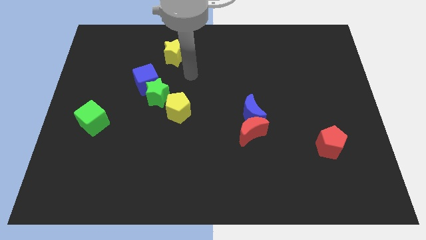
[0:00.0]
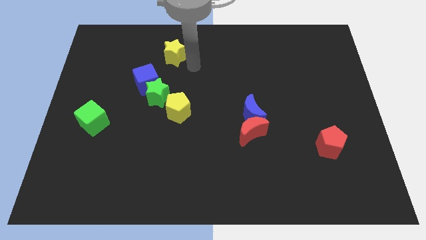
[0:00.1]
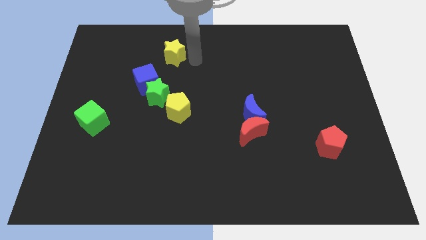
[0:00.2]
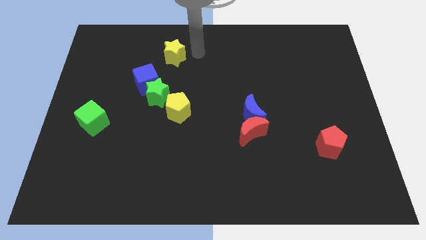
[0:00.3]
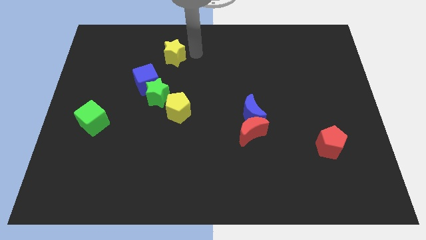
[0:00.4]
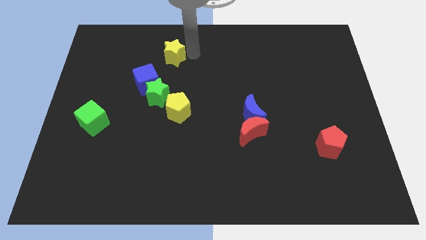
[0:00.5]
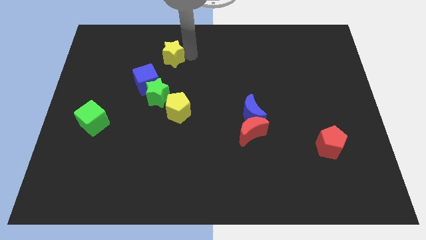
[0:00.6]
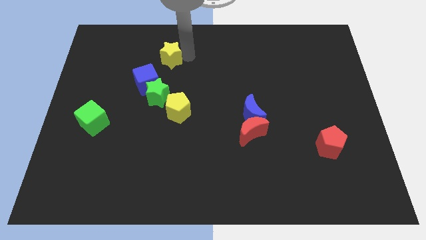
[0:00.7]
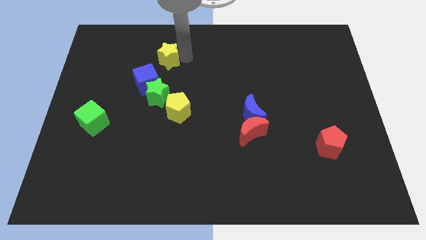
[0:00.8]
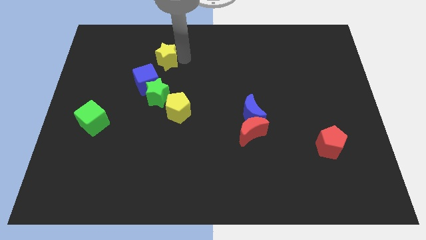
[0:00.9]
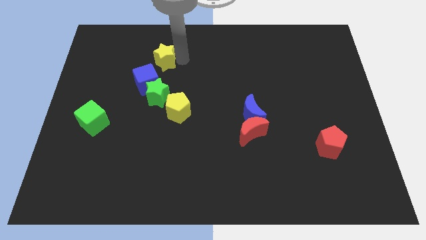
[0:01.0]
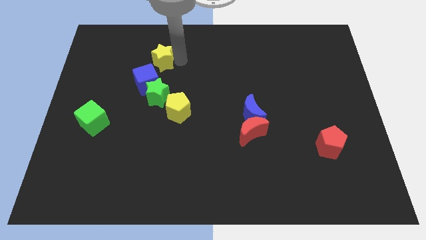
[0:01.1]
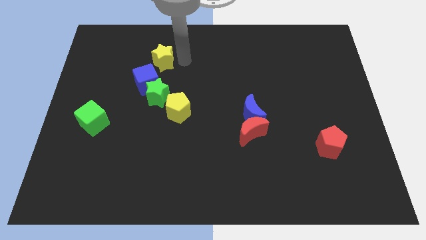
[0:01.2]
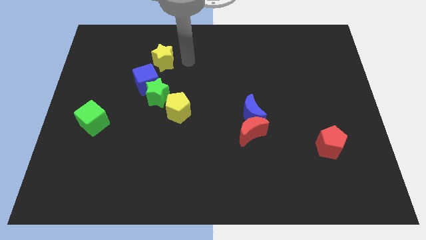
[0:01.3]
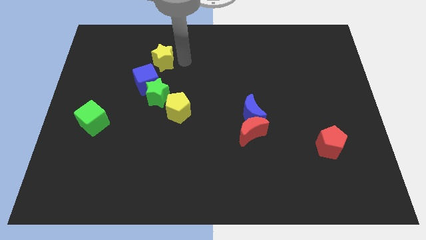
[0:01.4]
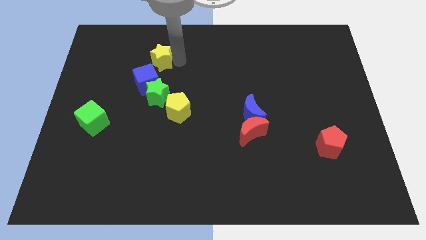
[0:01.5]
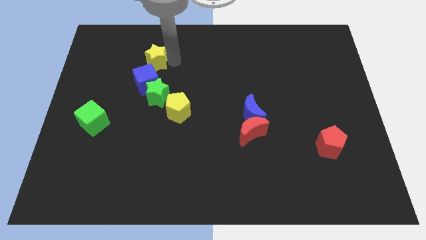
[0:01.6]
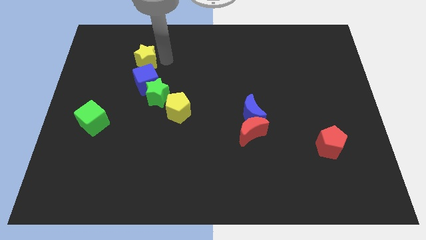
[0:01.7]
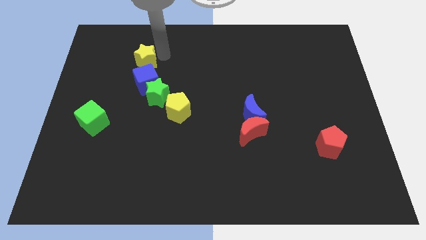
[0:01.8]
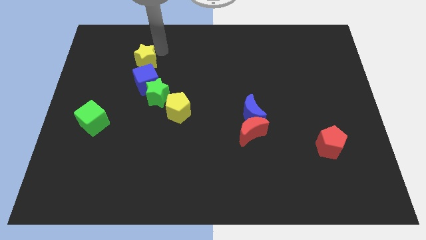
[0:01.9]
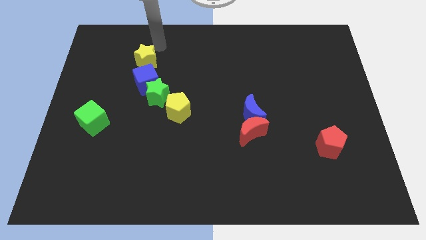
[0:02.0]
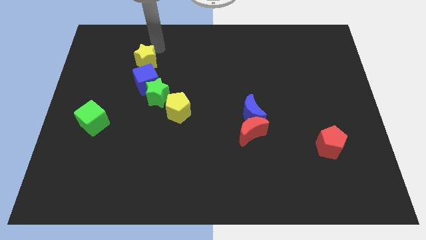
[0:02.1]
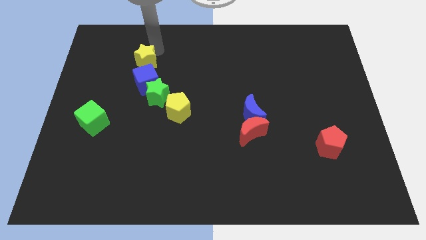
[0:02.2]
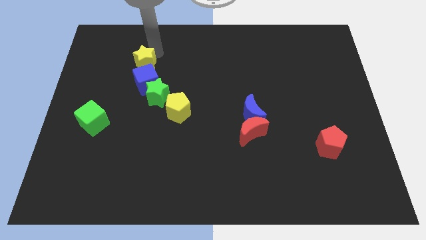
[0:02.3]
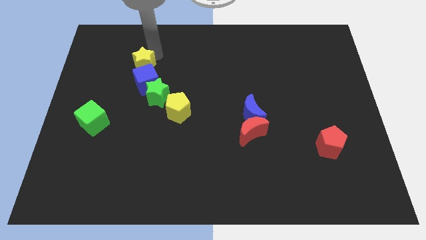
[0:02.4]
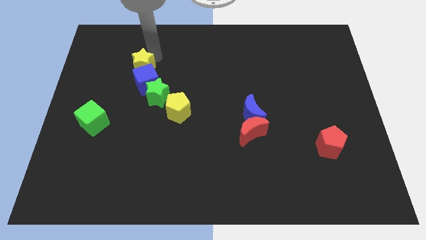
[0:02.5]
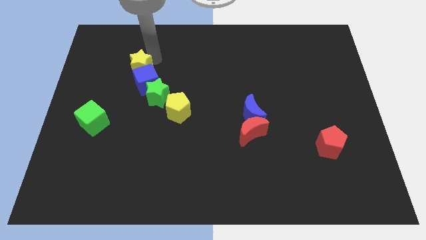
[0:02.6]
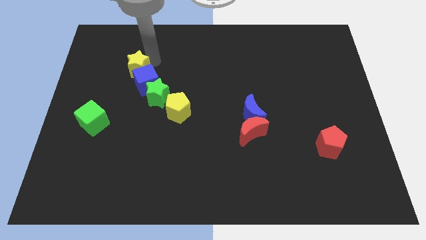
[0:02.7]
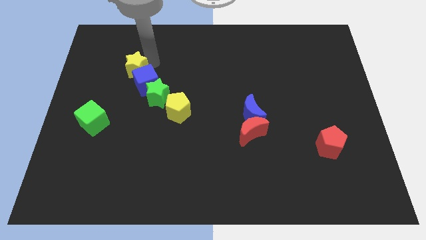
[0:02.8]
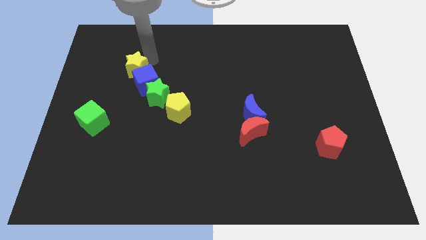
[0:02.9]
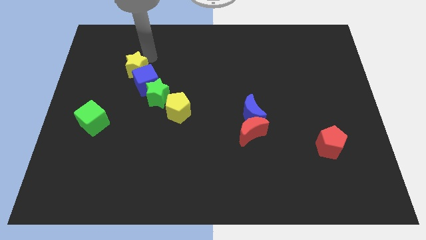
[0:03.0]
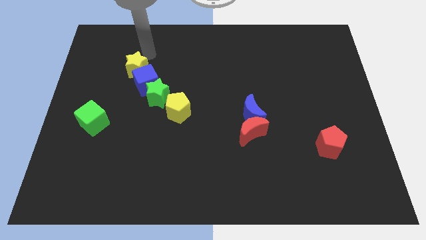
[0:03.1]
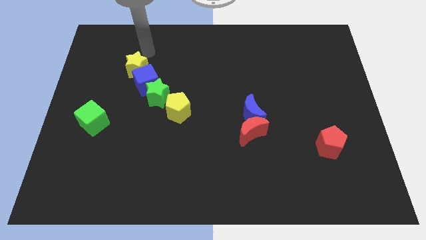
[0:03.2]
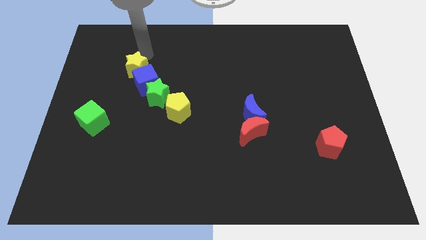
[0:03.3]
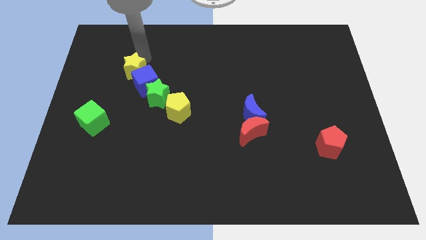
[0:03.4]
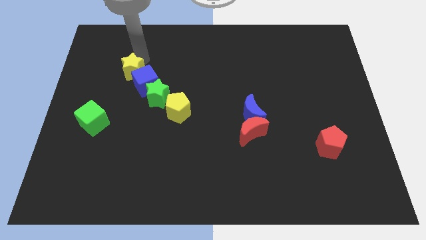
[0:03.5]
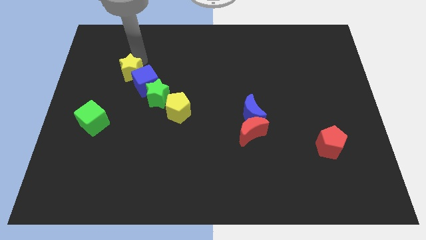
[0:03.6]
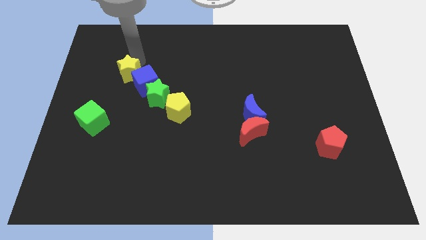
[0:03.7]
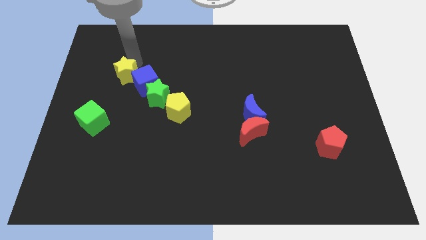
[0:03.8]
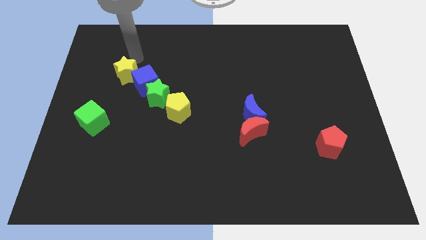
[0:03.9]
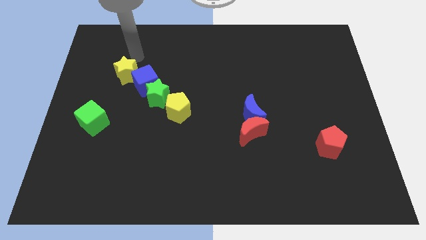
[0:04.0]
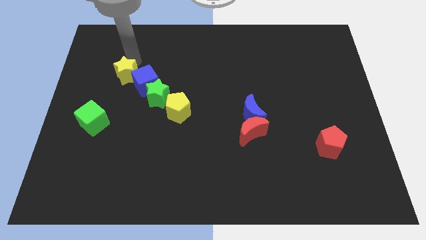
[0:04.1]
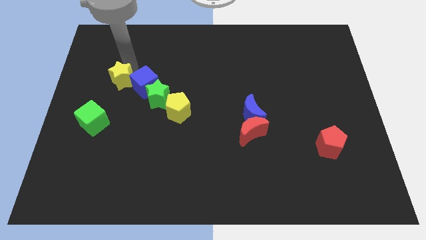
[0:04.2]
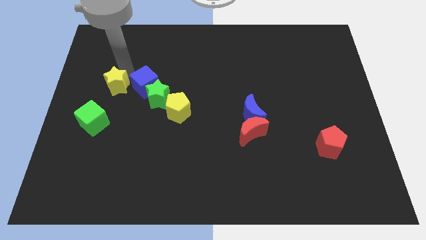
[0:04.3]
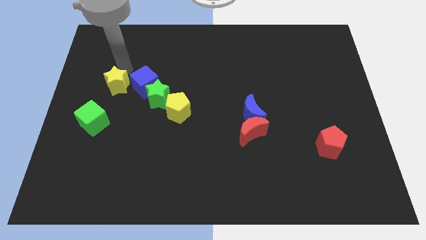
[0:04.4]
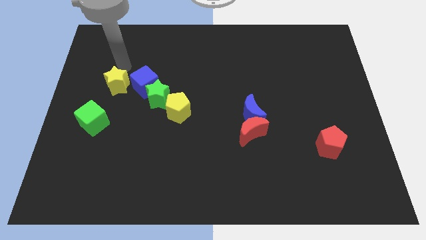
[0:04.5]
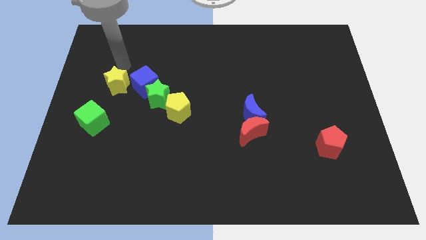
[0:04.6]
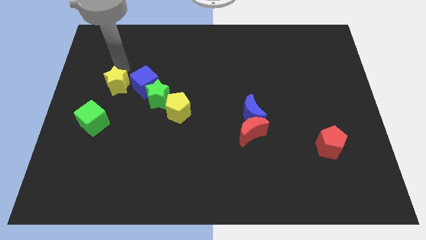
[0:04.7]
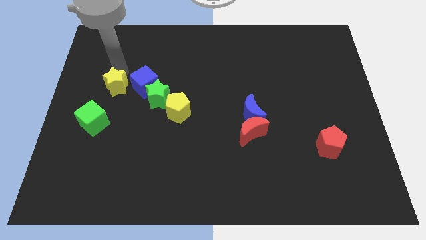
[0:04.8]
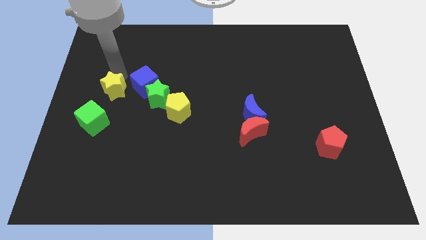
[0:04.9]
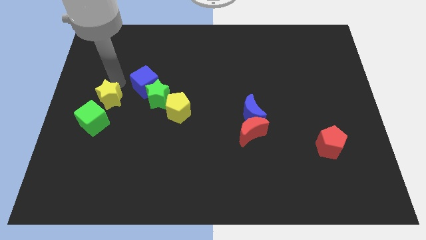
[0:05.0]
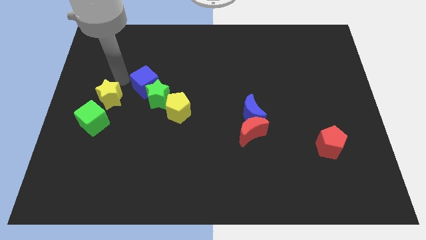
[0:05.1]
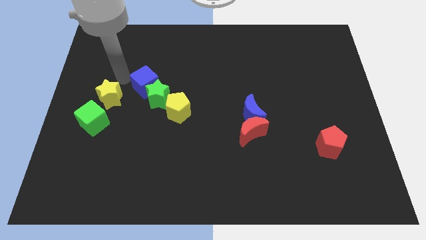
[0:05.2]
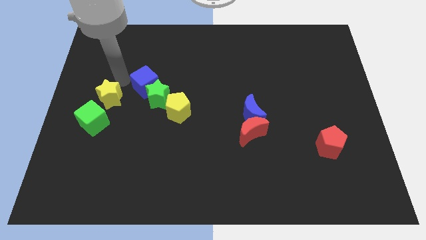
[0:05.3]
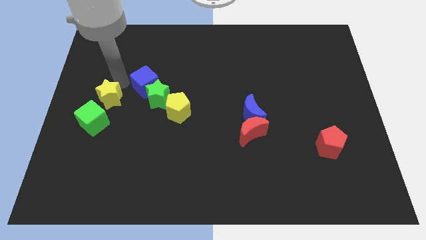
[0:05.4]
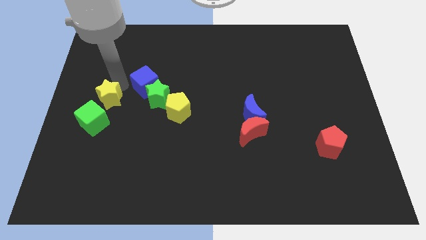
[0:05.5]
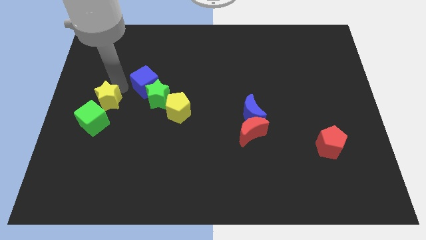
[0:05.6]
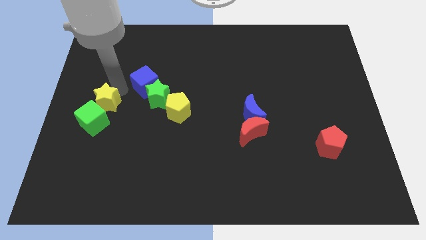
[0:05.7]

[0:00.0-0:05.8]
move the yellow star towards the green cube

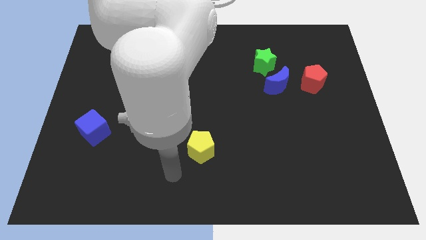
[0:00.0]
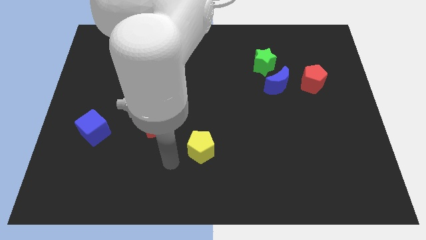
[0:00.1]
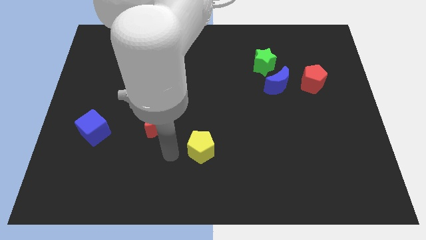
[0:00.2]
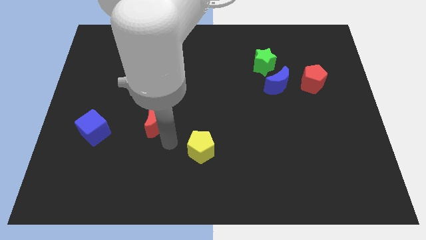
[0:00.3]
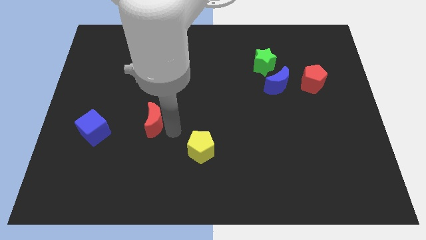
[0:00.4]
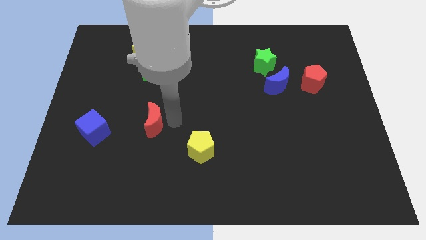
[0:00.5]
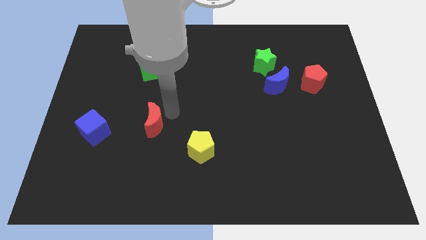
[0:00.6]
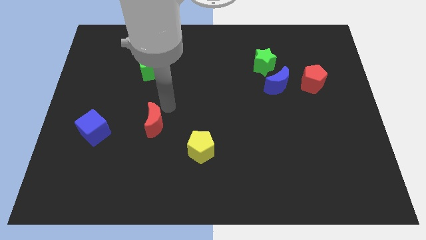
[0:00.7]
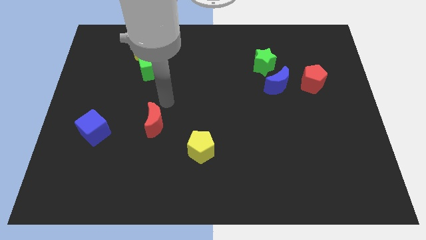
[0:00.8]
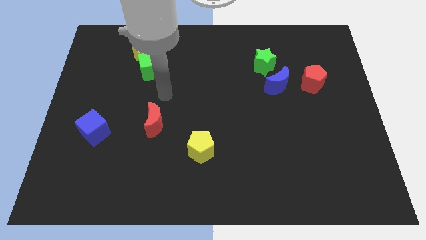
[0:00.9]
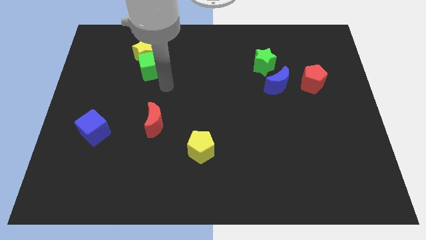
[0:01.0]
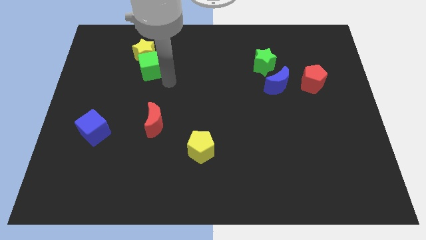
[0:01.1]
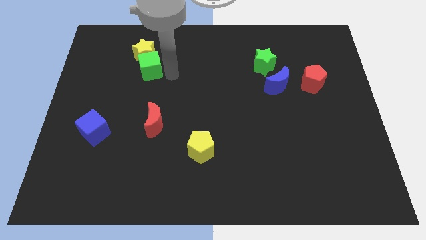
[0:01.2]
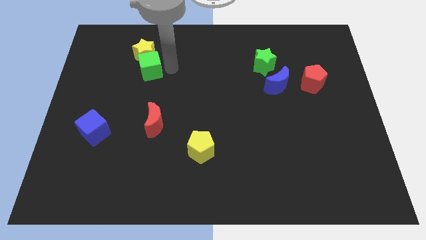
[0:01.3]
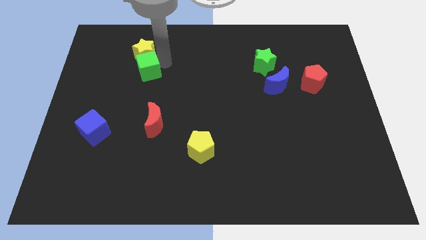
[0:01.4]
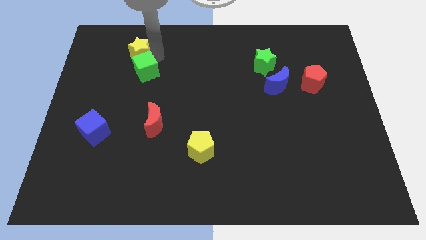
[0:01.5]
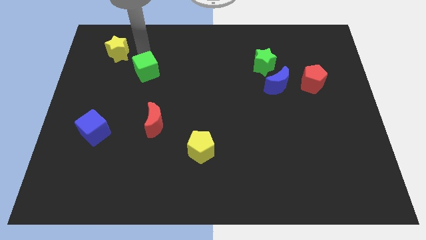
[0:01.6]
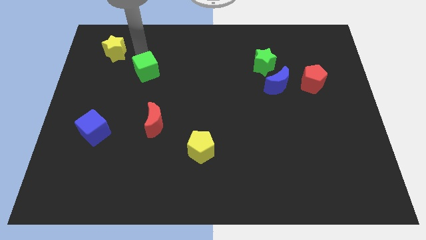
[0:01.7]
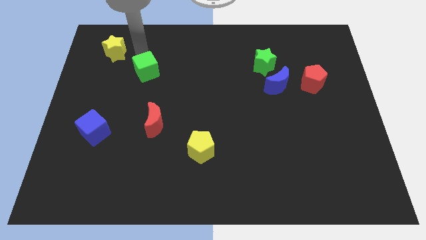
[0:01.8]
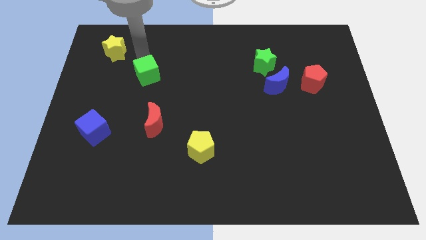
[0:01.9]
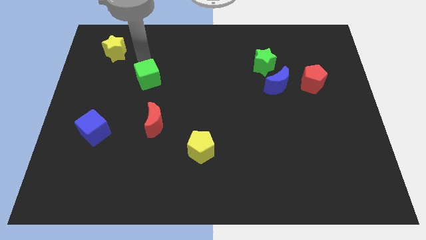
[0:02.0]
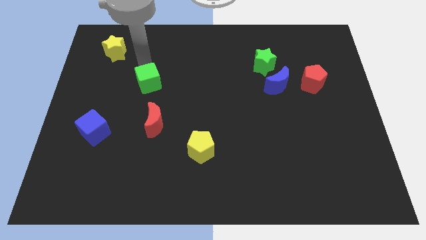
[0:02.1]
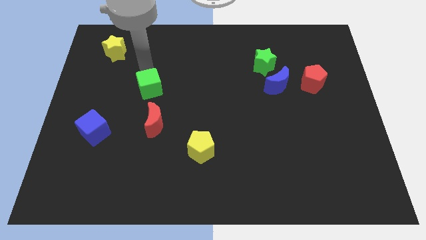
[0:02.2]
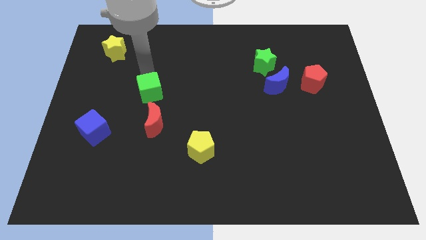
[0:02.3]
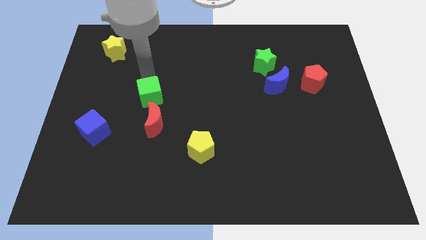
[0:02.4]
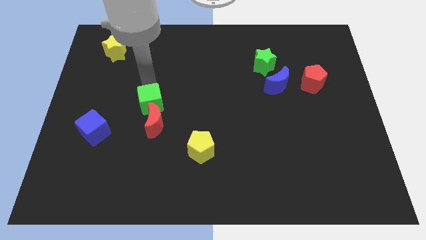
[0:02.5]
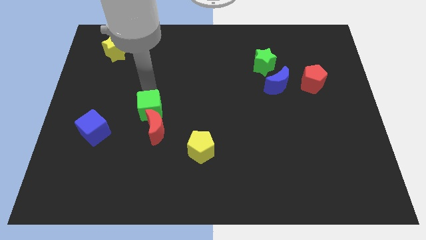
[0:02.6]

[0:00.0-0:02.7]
slide the green cube to the red moon
